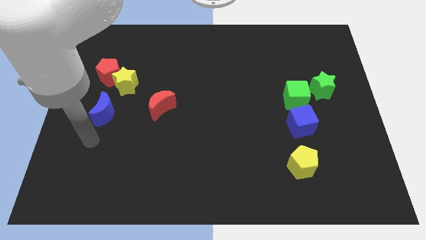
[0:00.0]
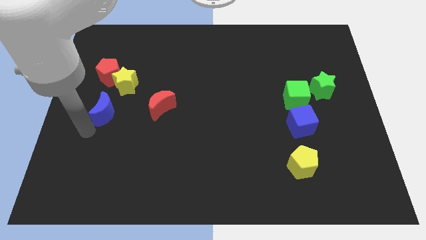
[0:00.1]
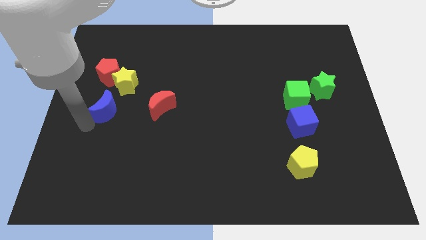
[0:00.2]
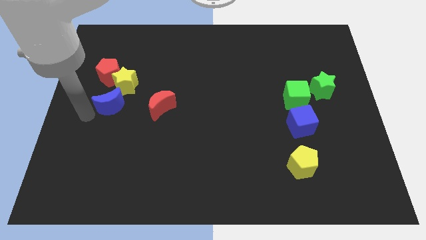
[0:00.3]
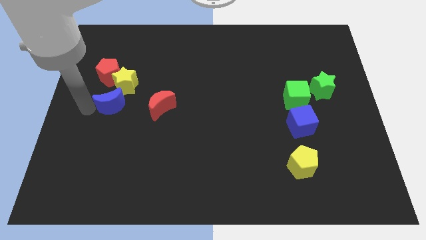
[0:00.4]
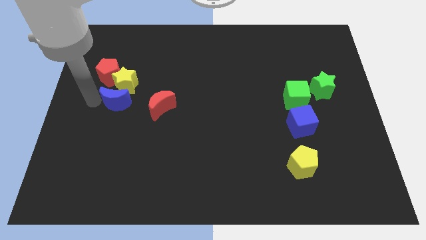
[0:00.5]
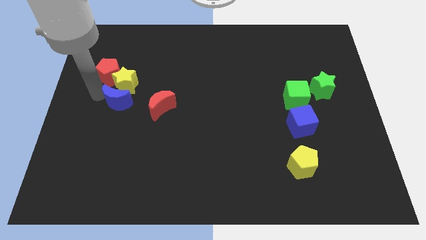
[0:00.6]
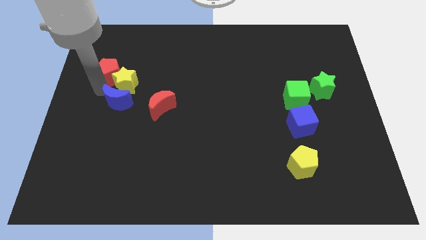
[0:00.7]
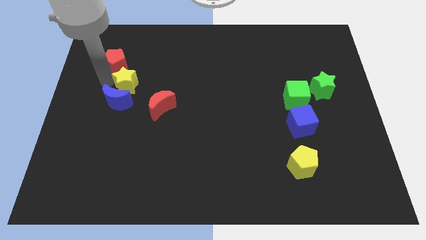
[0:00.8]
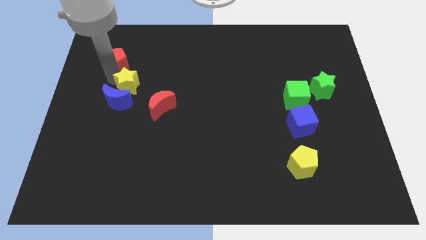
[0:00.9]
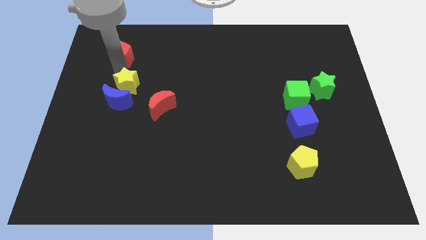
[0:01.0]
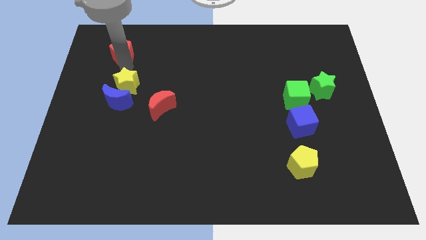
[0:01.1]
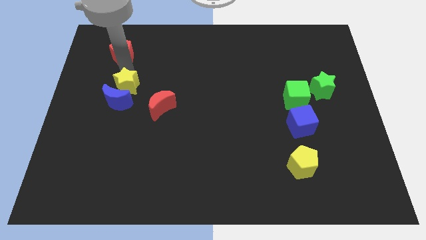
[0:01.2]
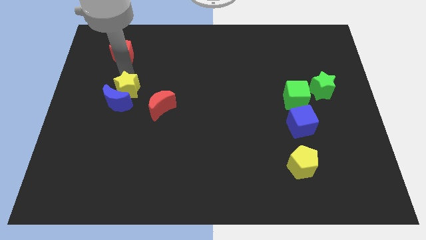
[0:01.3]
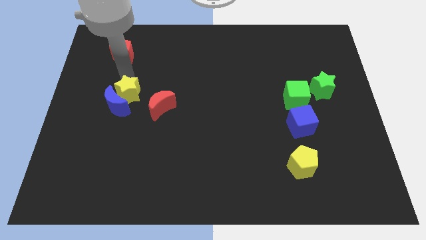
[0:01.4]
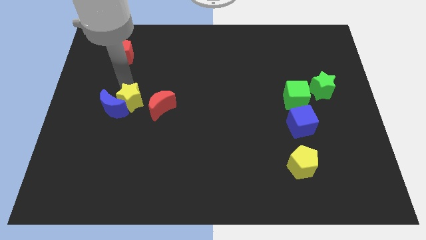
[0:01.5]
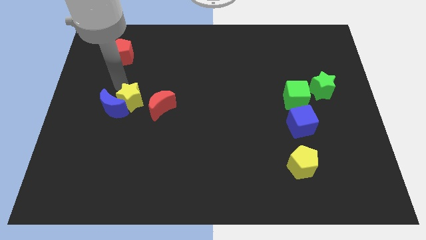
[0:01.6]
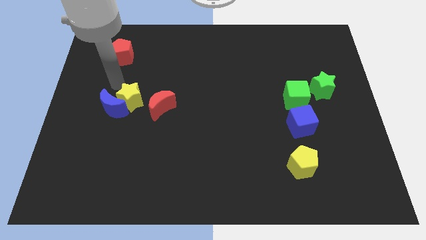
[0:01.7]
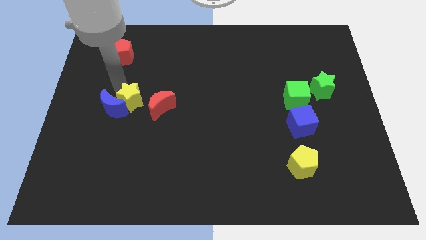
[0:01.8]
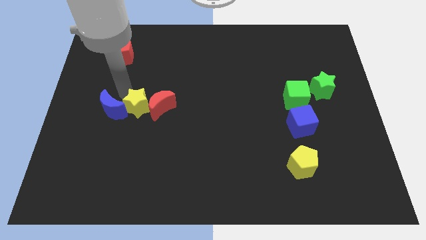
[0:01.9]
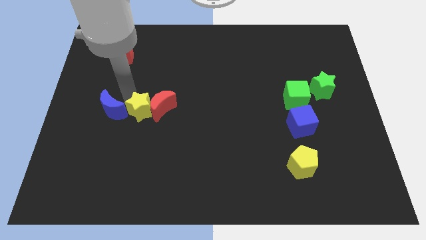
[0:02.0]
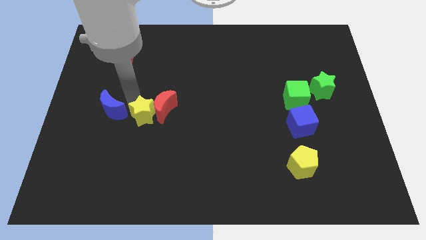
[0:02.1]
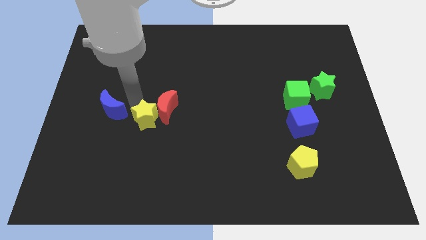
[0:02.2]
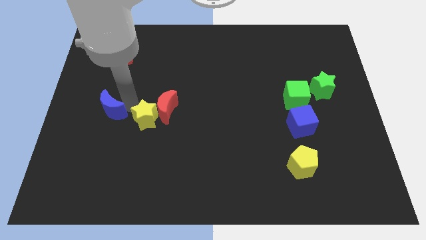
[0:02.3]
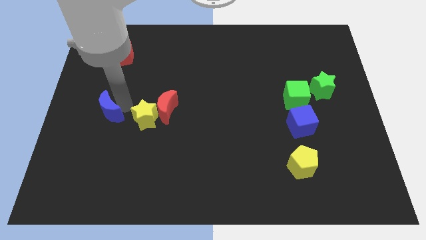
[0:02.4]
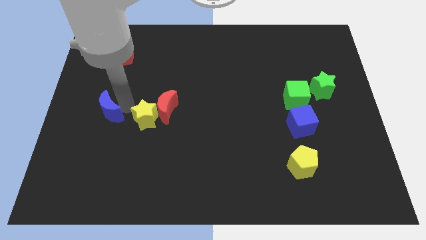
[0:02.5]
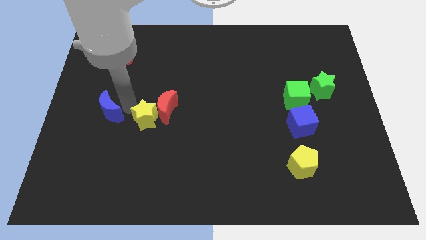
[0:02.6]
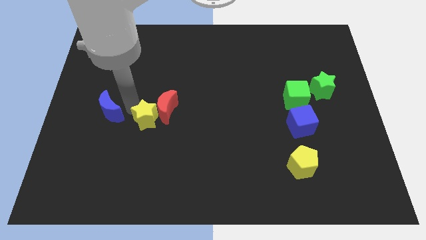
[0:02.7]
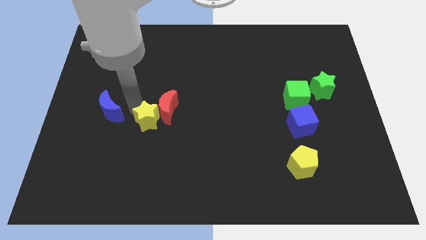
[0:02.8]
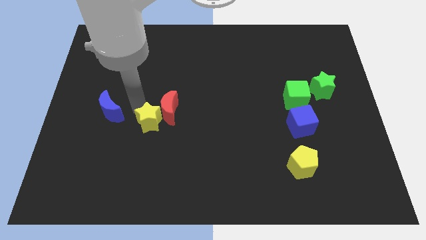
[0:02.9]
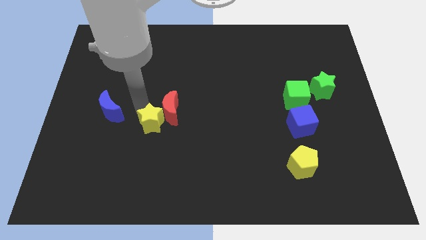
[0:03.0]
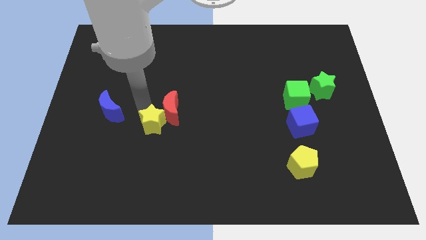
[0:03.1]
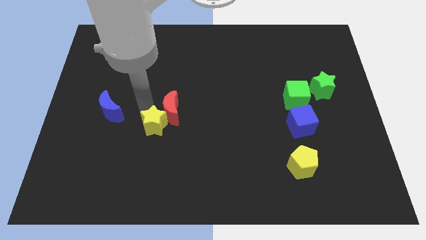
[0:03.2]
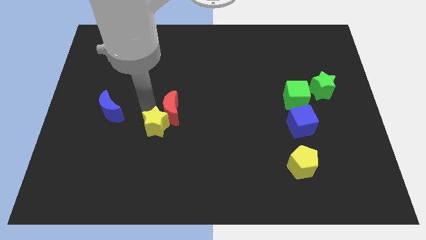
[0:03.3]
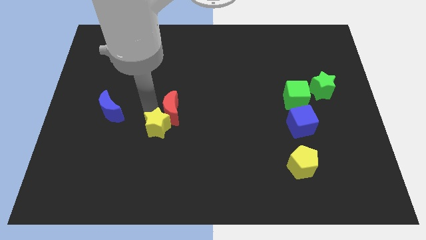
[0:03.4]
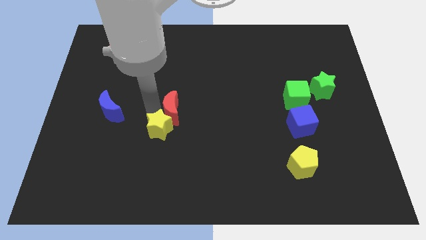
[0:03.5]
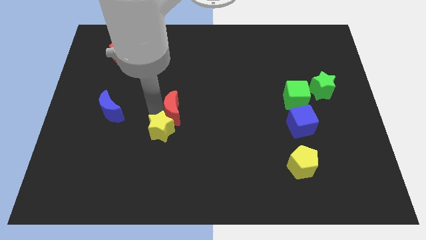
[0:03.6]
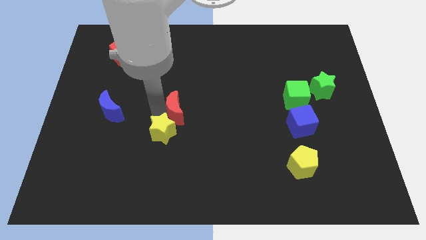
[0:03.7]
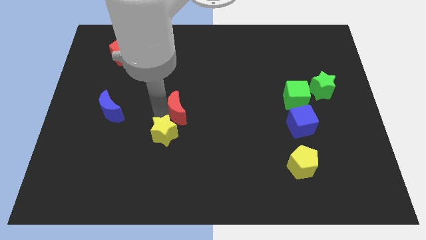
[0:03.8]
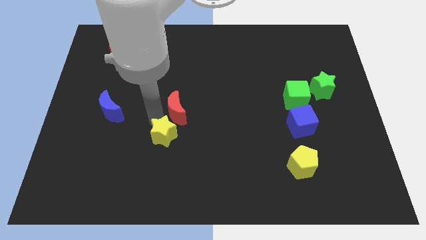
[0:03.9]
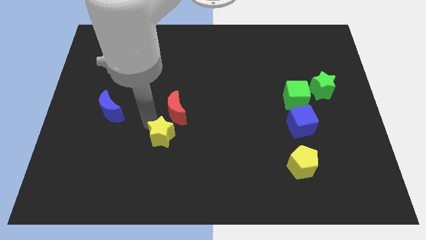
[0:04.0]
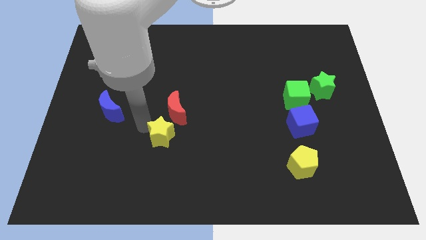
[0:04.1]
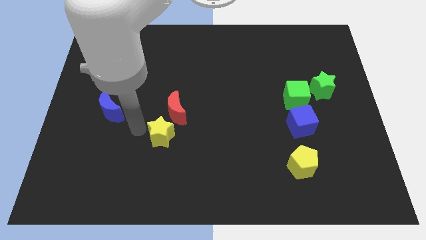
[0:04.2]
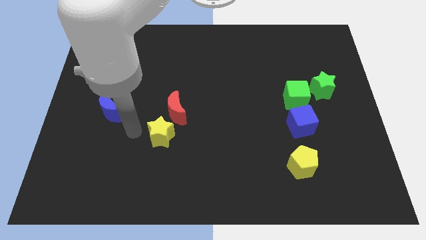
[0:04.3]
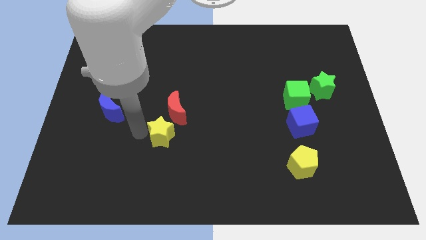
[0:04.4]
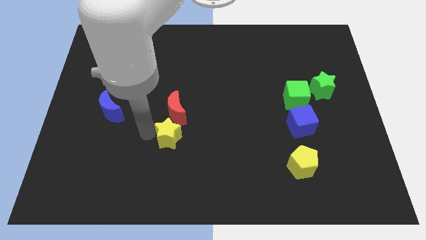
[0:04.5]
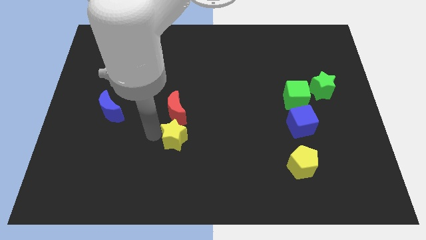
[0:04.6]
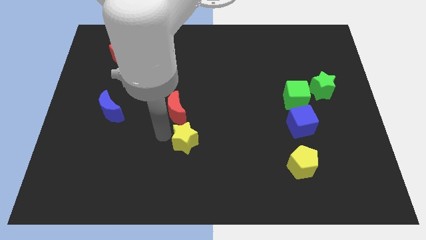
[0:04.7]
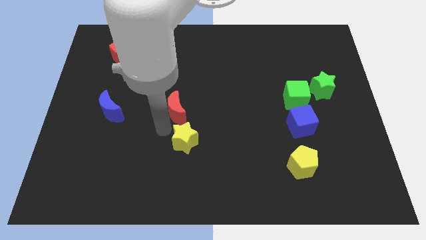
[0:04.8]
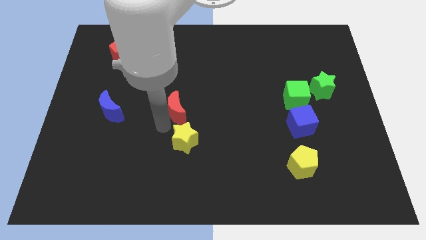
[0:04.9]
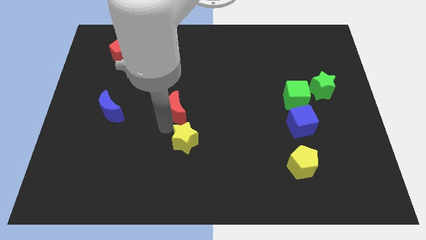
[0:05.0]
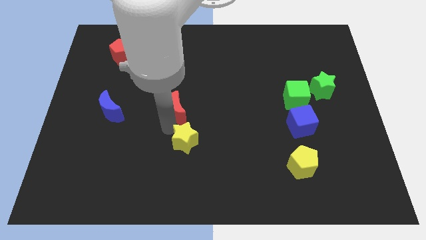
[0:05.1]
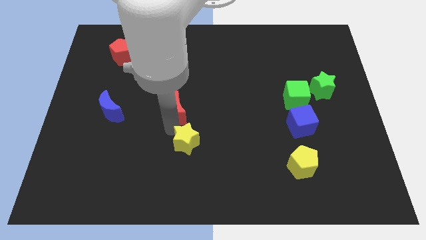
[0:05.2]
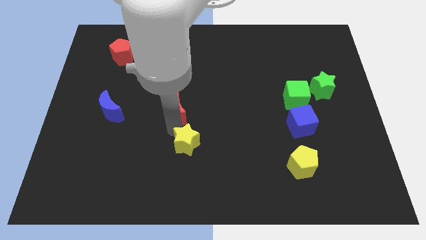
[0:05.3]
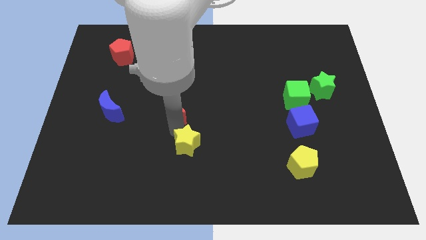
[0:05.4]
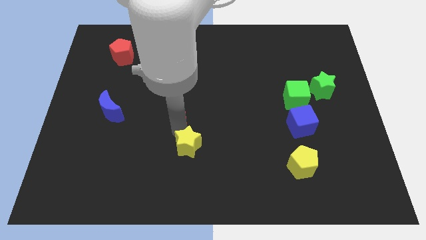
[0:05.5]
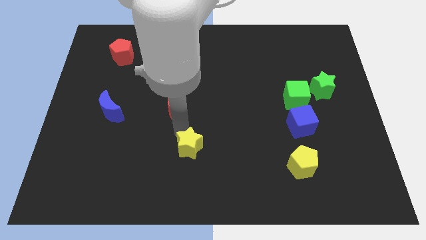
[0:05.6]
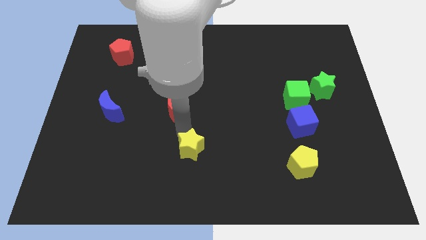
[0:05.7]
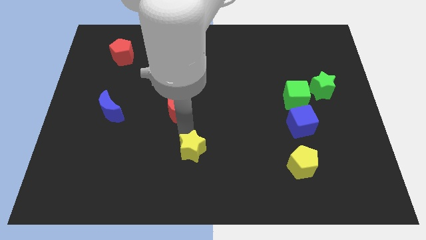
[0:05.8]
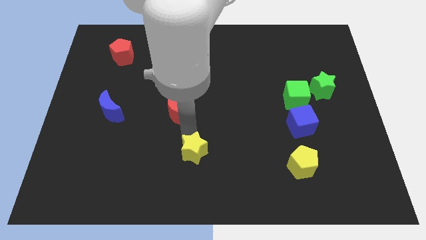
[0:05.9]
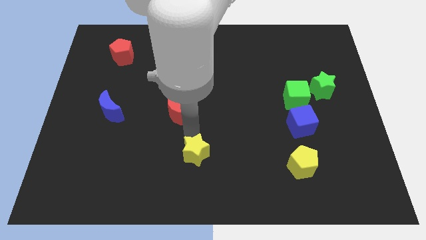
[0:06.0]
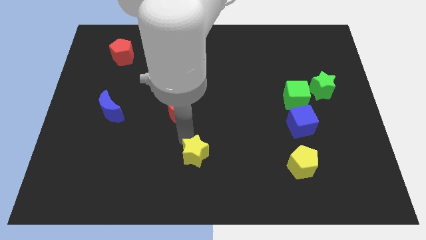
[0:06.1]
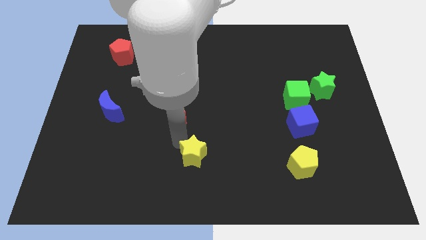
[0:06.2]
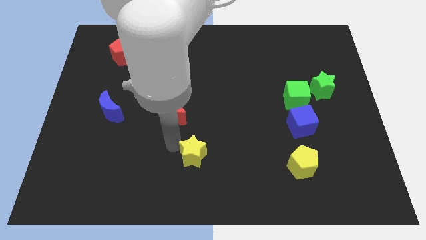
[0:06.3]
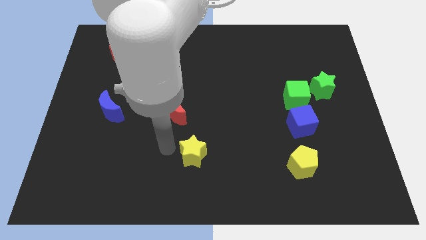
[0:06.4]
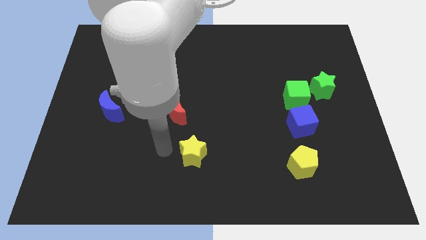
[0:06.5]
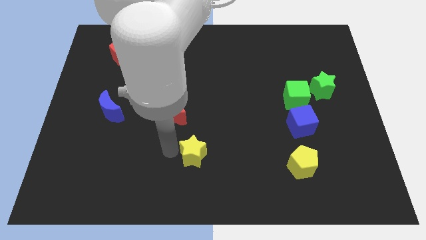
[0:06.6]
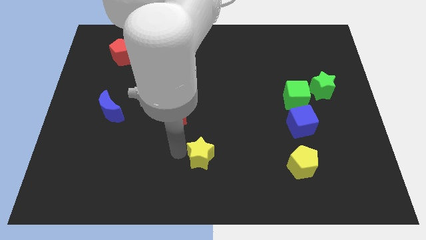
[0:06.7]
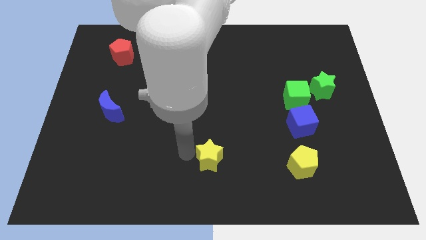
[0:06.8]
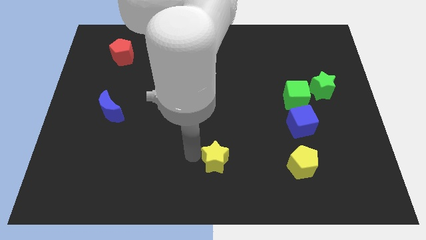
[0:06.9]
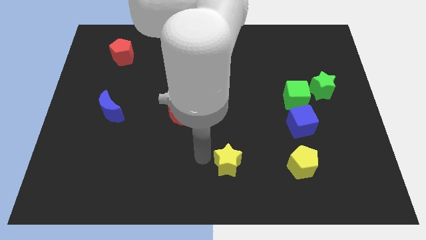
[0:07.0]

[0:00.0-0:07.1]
move the yellow star left of the yellow pentagon

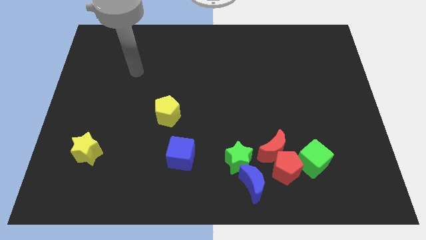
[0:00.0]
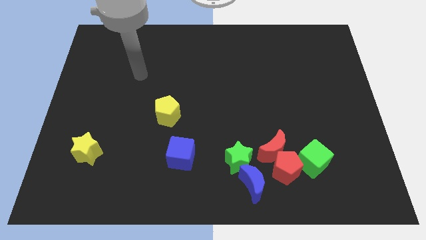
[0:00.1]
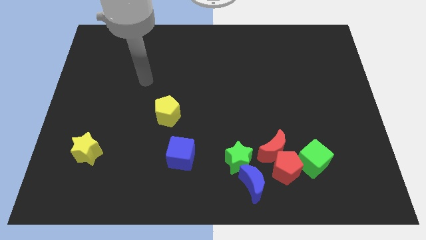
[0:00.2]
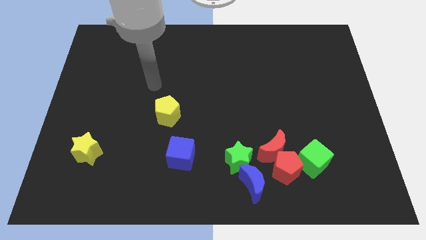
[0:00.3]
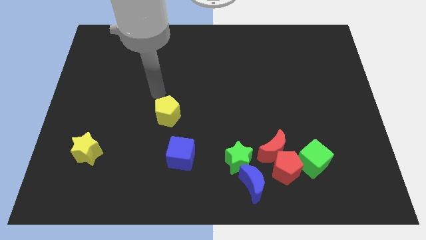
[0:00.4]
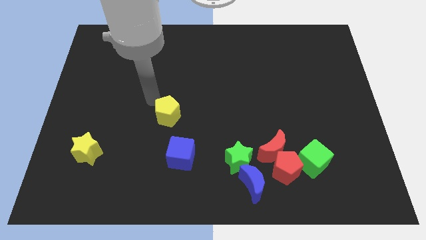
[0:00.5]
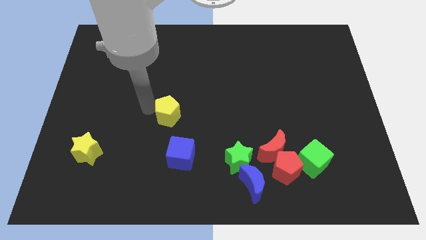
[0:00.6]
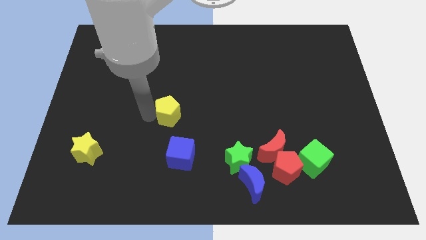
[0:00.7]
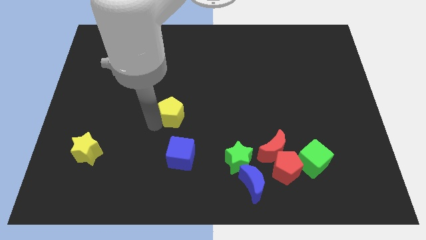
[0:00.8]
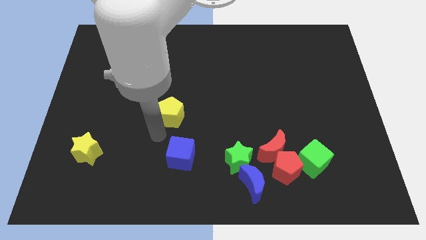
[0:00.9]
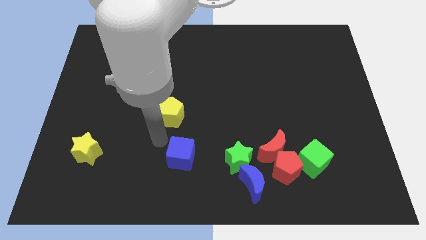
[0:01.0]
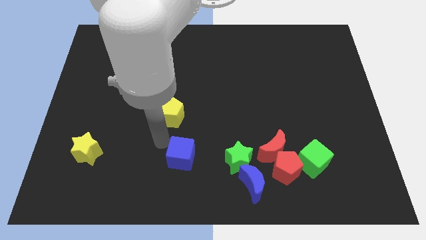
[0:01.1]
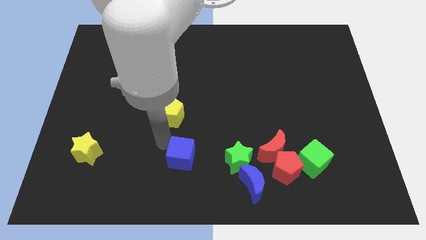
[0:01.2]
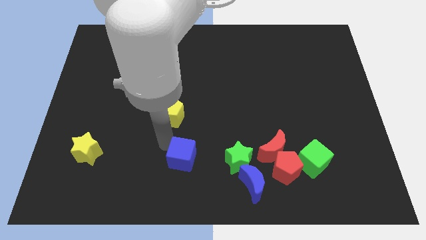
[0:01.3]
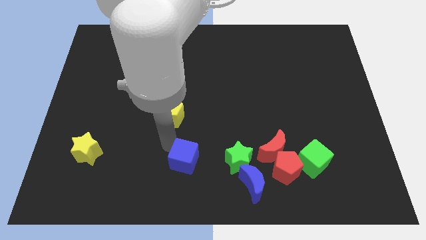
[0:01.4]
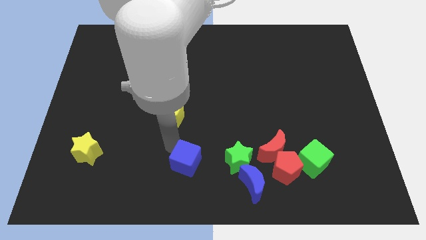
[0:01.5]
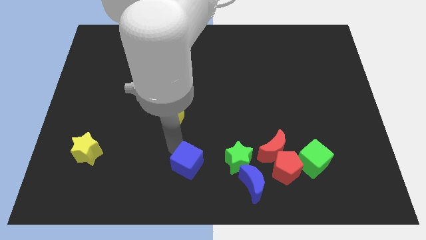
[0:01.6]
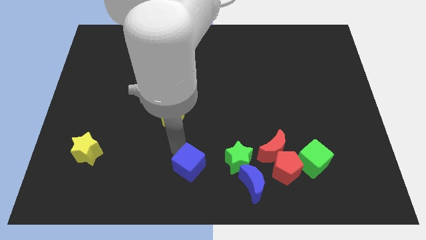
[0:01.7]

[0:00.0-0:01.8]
put the blue cube just left of the blue moon
